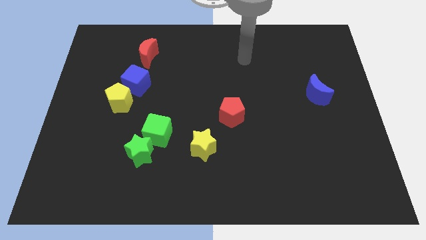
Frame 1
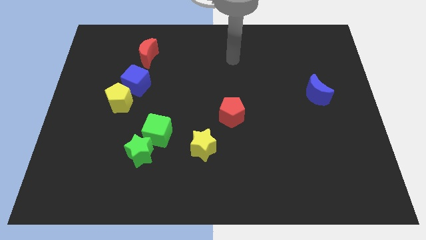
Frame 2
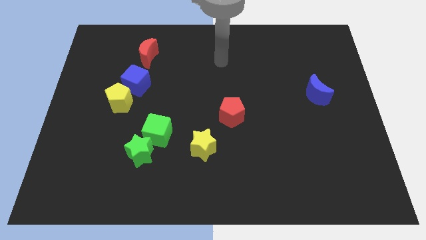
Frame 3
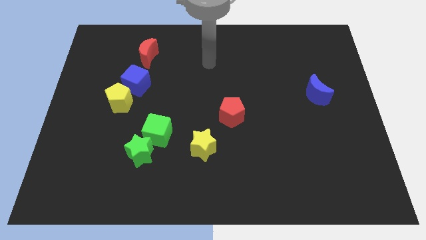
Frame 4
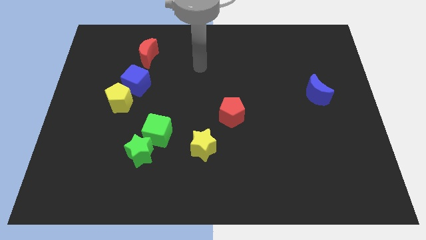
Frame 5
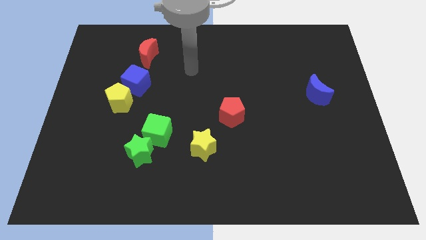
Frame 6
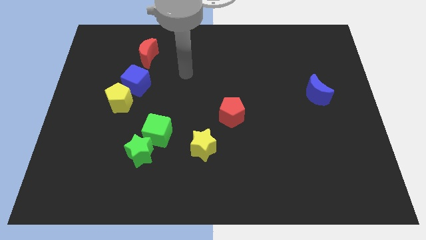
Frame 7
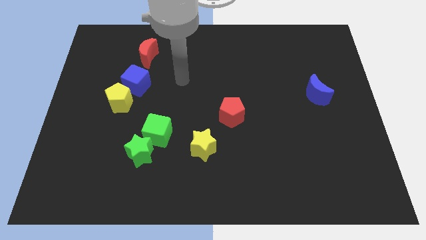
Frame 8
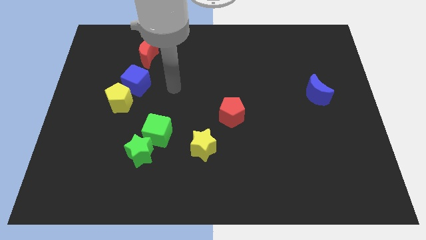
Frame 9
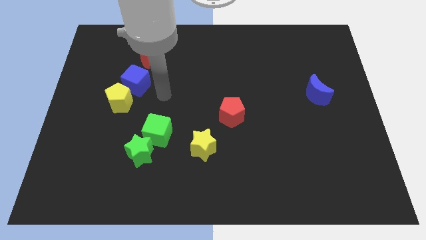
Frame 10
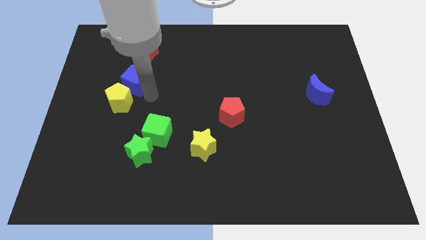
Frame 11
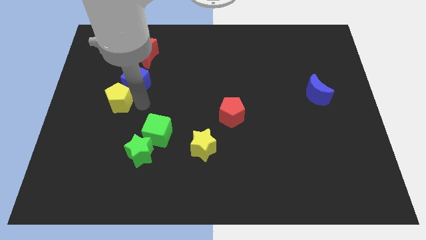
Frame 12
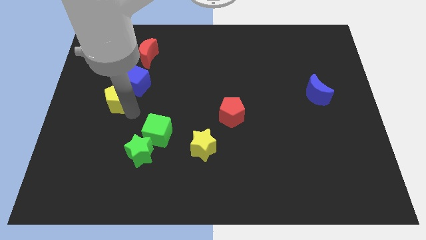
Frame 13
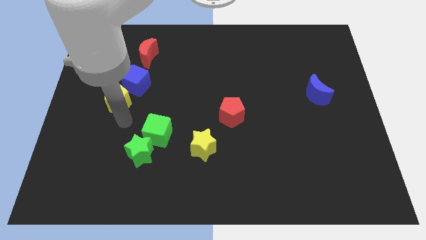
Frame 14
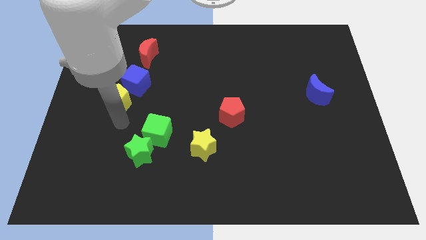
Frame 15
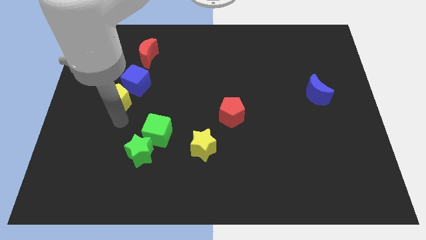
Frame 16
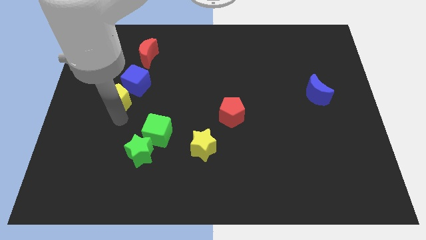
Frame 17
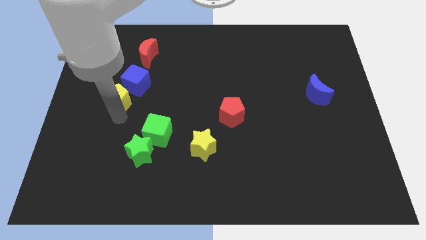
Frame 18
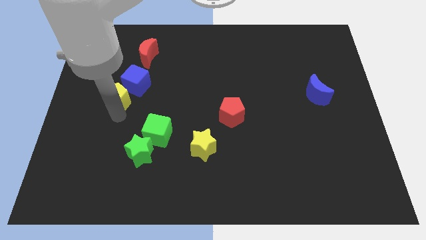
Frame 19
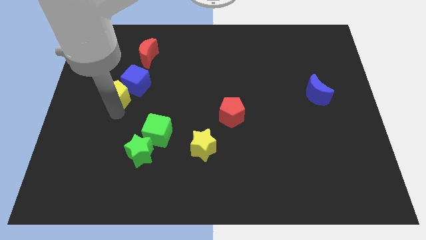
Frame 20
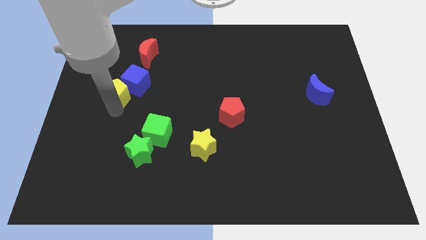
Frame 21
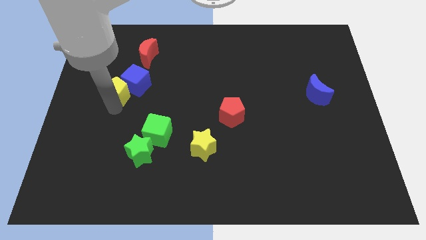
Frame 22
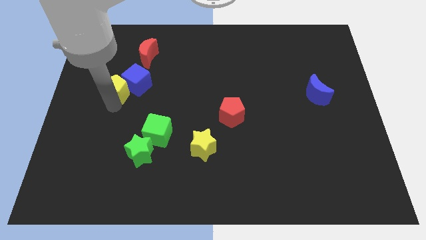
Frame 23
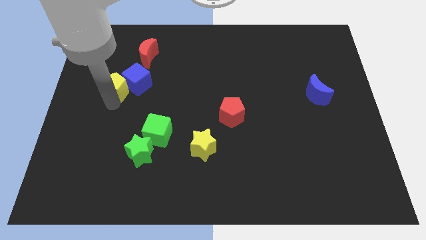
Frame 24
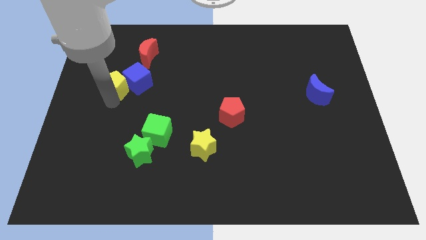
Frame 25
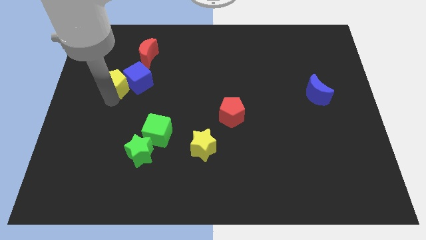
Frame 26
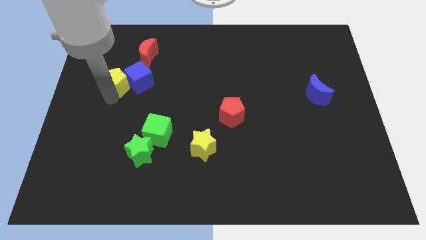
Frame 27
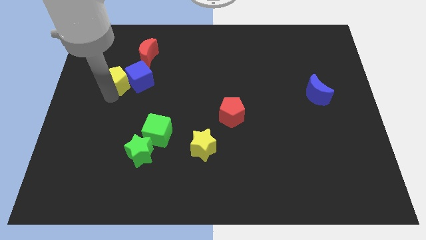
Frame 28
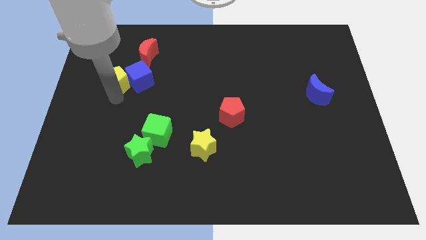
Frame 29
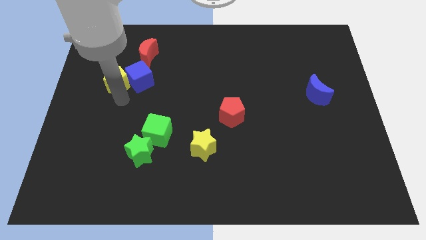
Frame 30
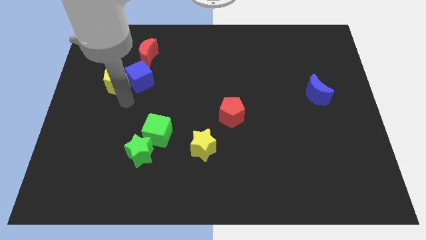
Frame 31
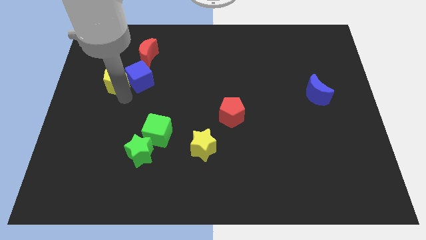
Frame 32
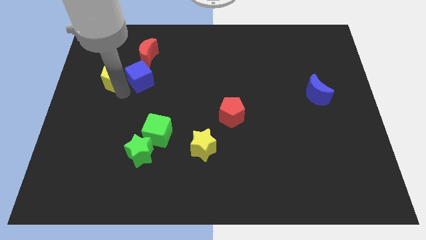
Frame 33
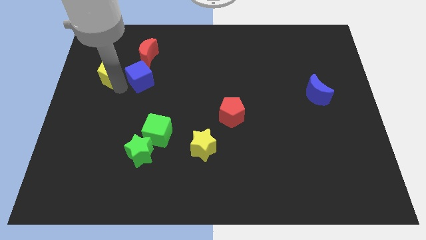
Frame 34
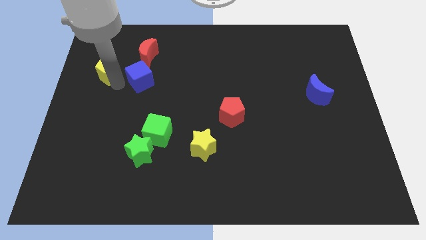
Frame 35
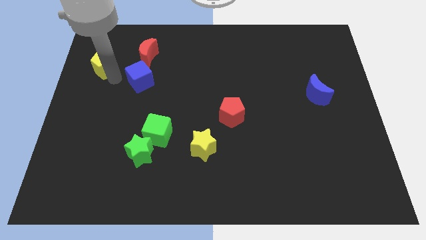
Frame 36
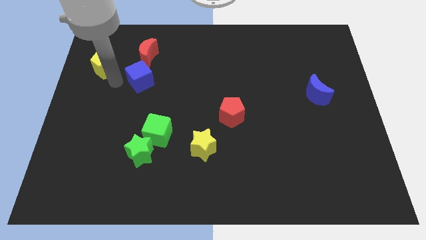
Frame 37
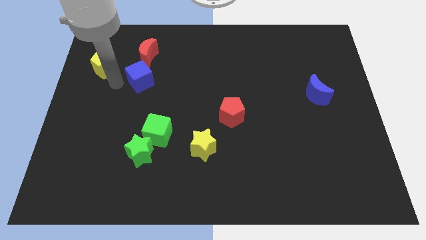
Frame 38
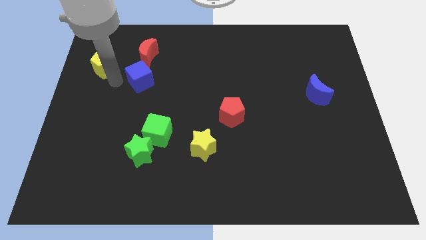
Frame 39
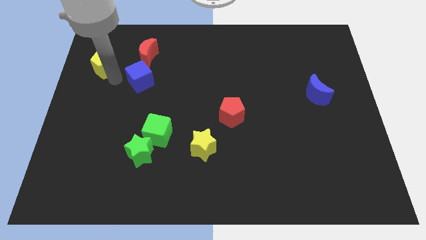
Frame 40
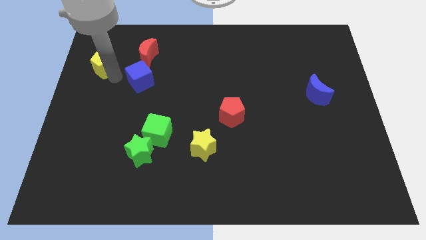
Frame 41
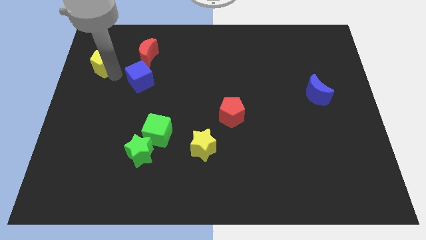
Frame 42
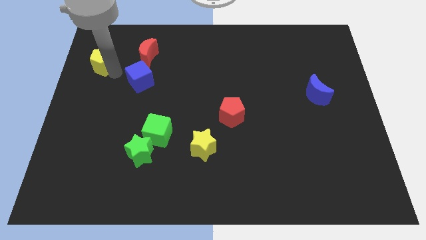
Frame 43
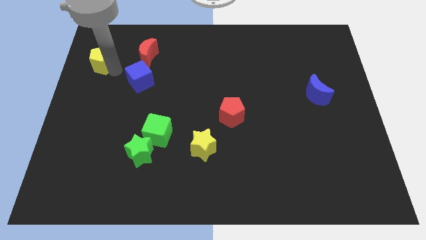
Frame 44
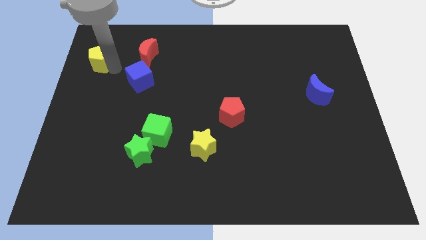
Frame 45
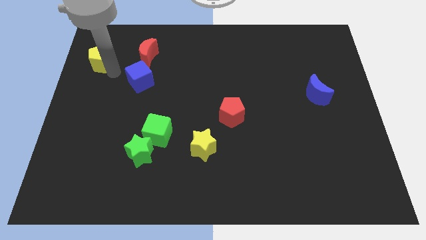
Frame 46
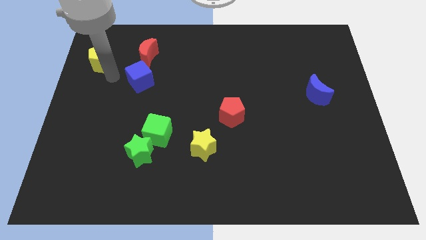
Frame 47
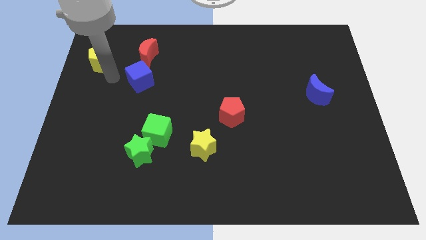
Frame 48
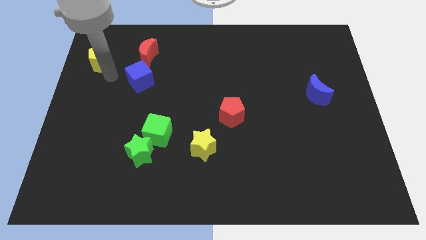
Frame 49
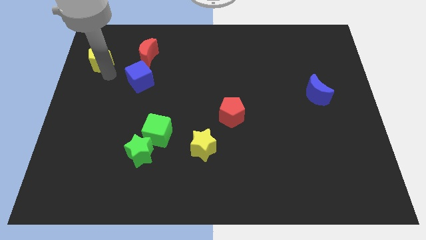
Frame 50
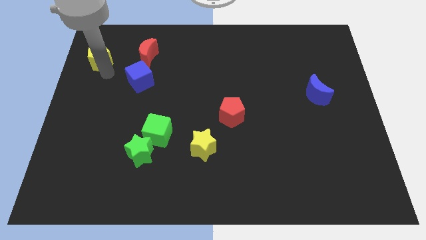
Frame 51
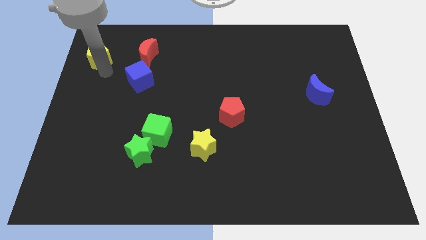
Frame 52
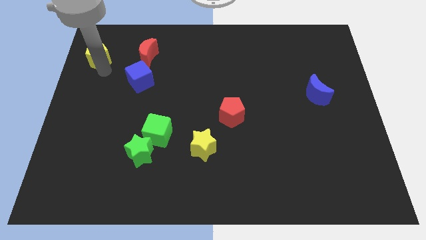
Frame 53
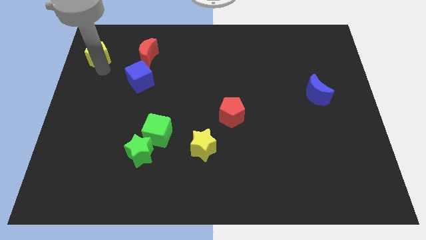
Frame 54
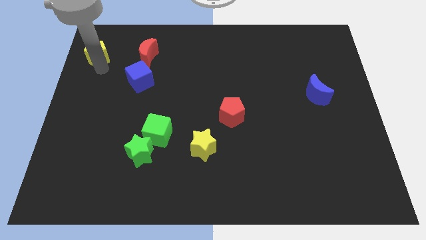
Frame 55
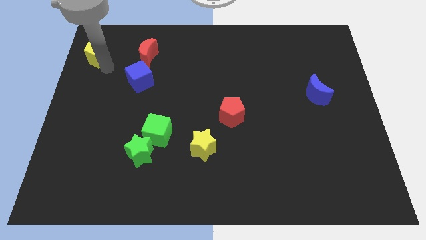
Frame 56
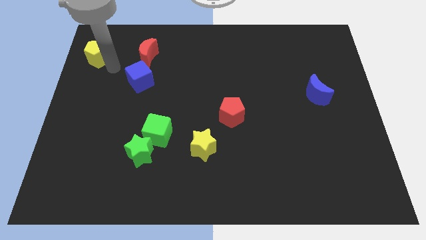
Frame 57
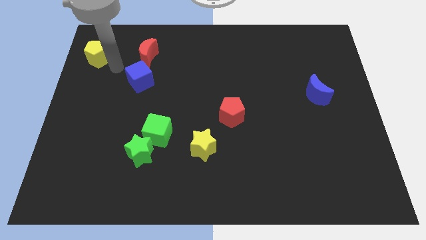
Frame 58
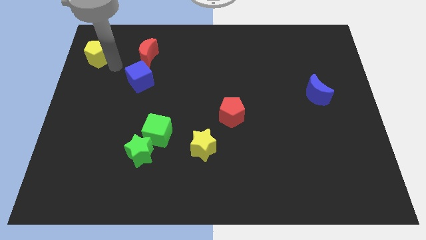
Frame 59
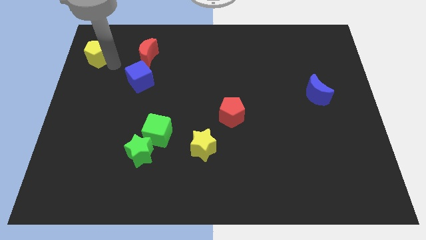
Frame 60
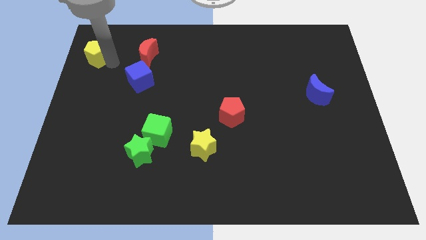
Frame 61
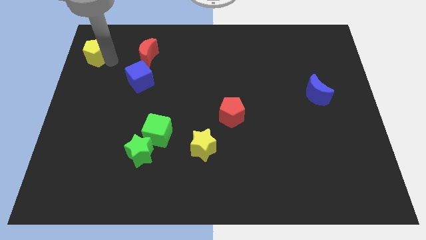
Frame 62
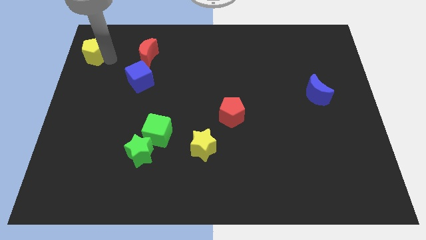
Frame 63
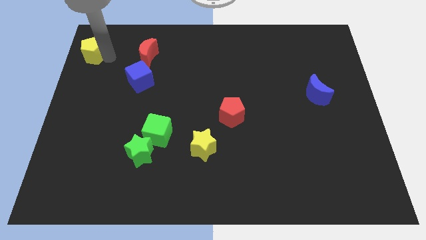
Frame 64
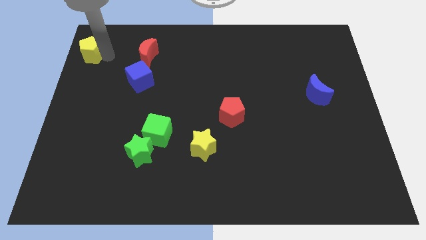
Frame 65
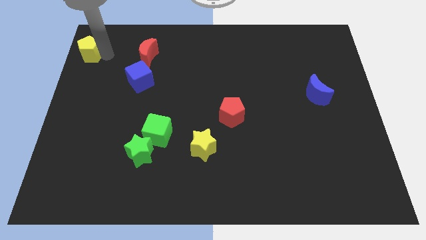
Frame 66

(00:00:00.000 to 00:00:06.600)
push the yellow pentagon to the top left corner
